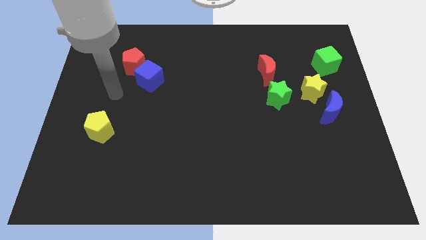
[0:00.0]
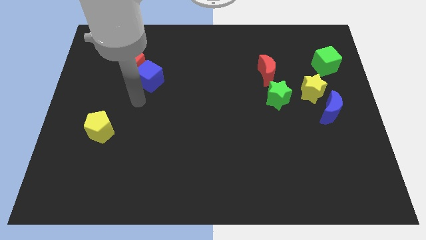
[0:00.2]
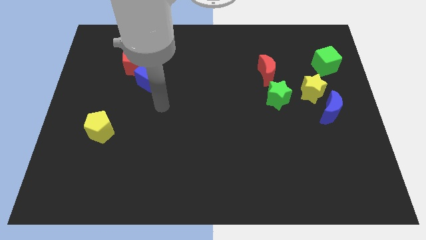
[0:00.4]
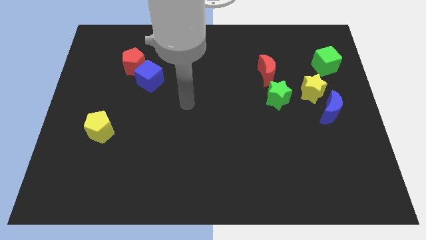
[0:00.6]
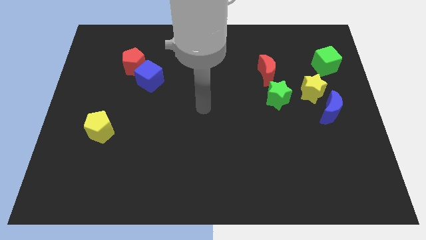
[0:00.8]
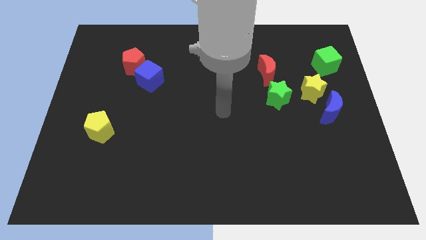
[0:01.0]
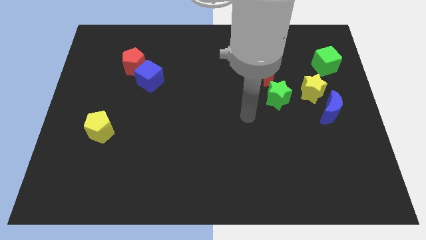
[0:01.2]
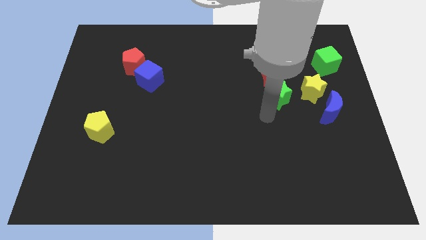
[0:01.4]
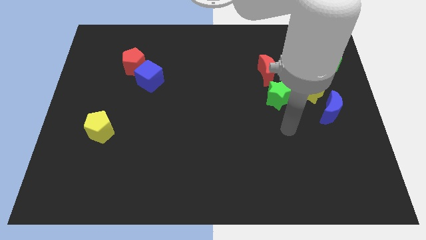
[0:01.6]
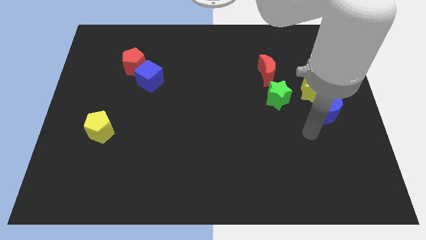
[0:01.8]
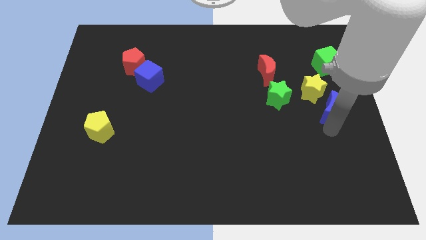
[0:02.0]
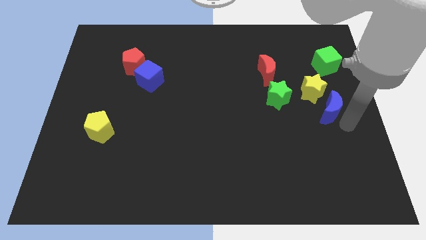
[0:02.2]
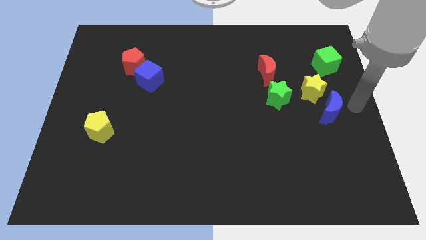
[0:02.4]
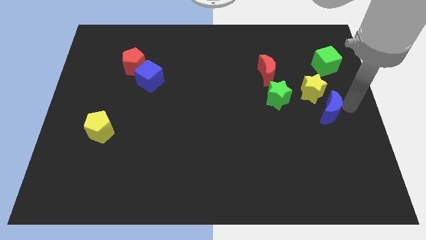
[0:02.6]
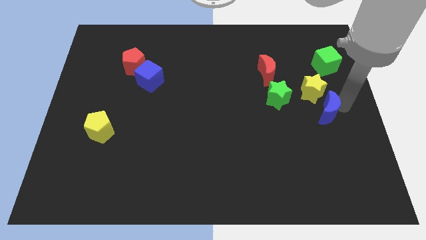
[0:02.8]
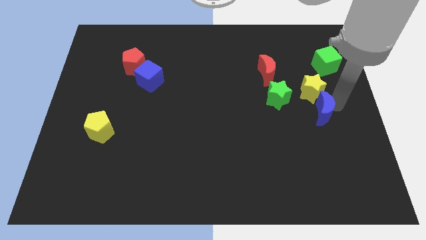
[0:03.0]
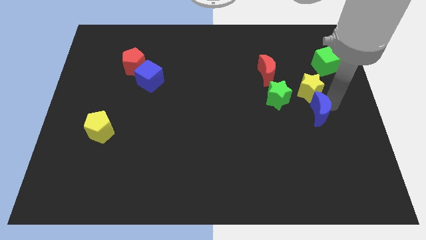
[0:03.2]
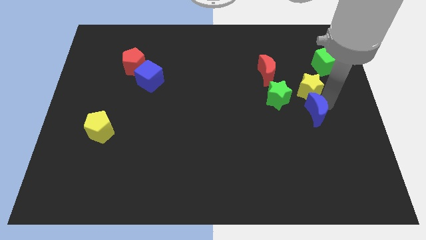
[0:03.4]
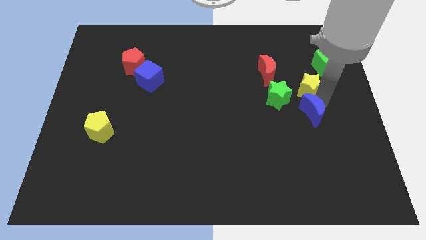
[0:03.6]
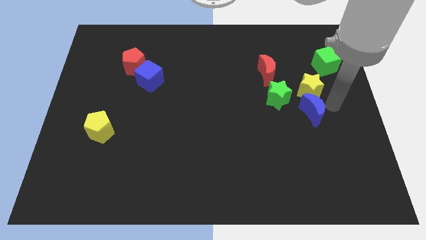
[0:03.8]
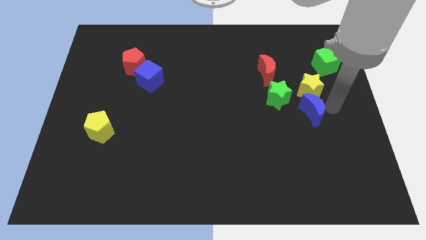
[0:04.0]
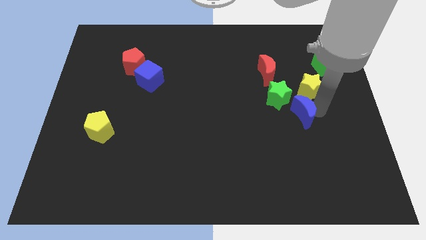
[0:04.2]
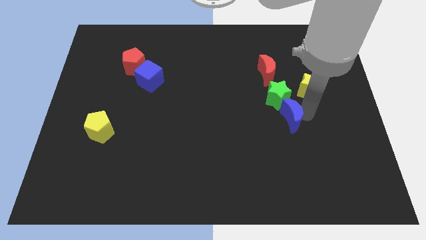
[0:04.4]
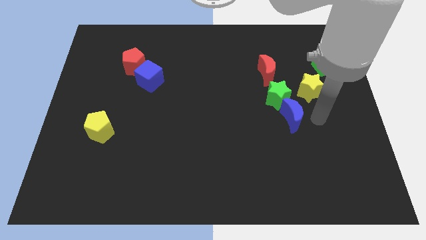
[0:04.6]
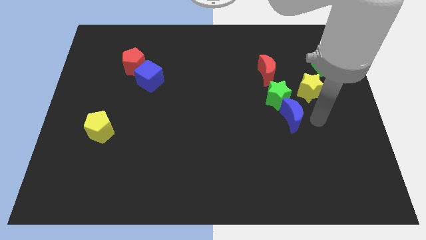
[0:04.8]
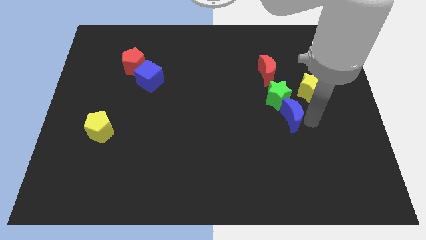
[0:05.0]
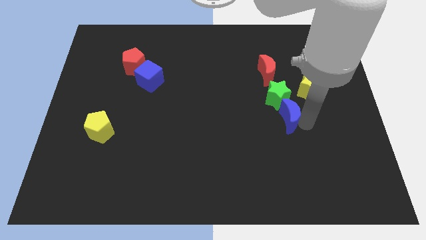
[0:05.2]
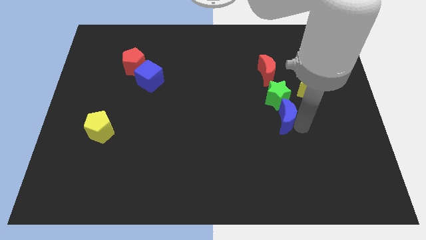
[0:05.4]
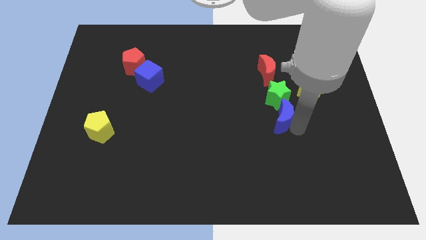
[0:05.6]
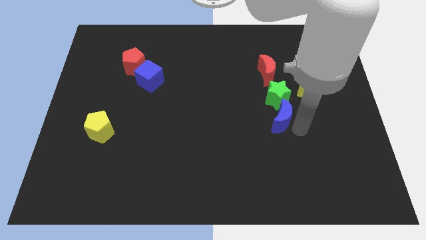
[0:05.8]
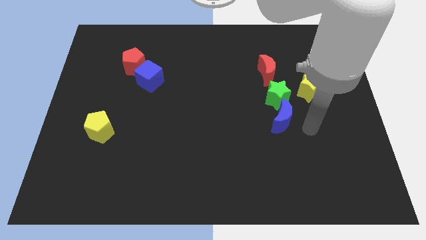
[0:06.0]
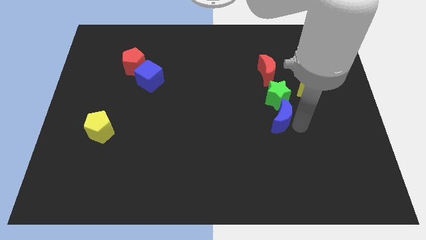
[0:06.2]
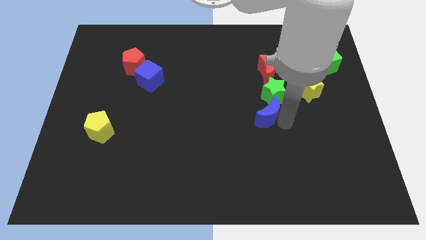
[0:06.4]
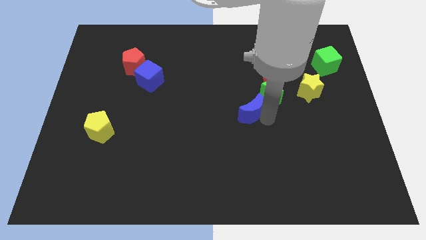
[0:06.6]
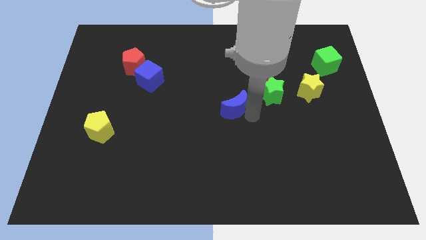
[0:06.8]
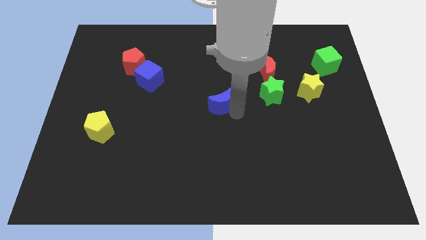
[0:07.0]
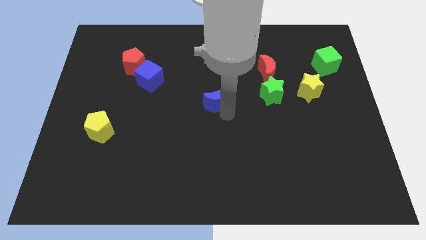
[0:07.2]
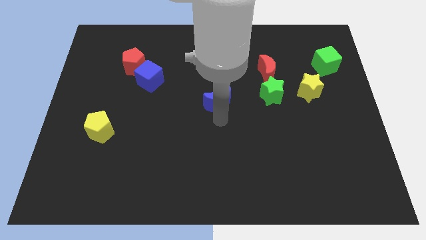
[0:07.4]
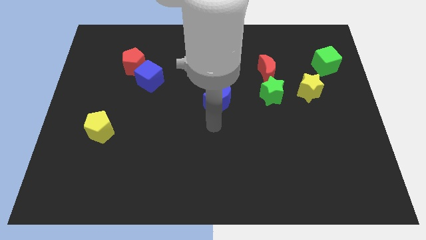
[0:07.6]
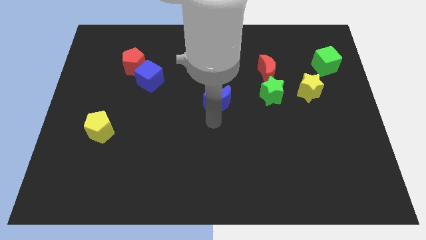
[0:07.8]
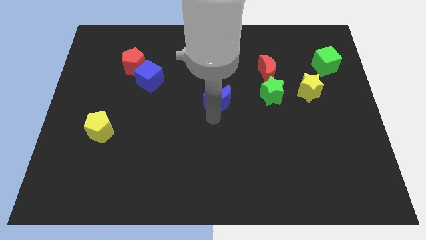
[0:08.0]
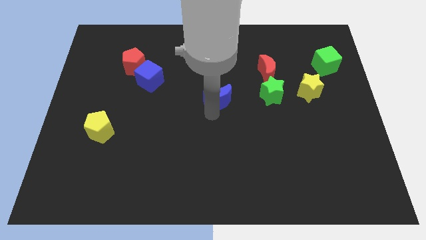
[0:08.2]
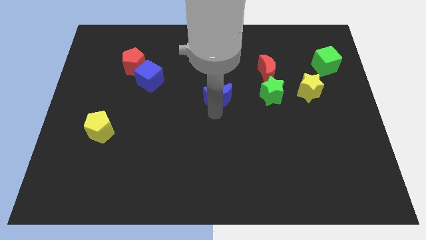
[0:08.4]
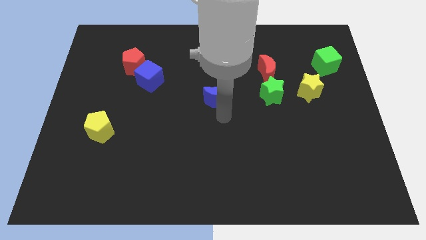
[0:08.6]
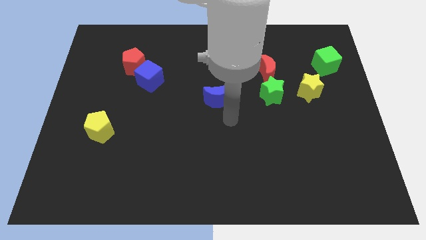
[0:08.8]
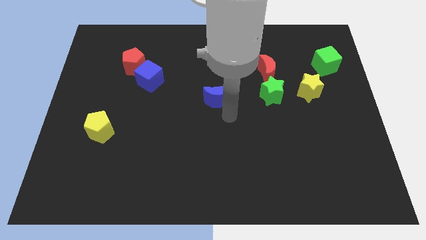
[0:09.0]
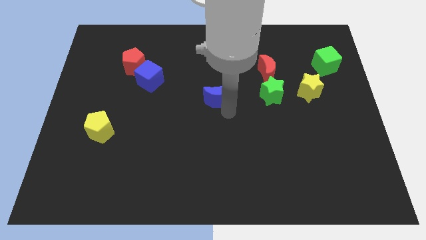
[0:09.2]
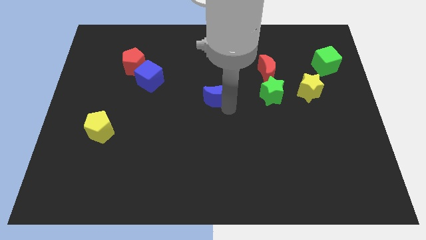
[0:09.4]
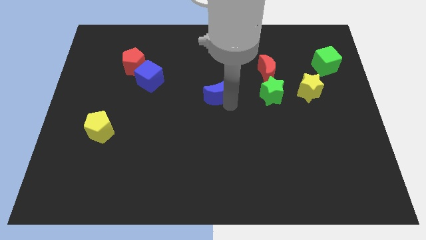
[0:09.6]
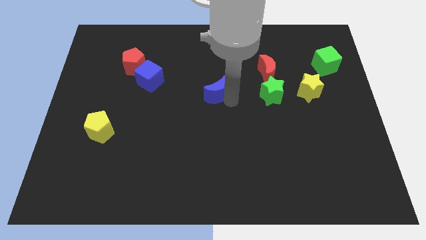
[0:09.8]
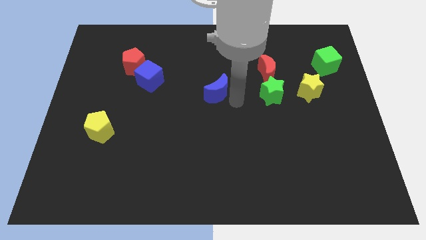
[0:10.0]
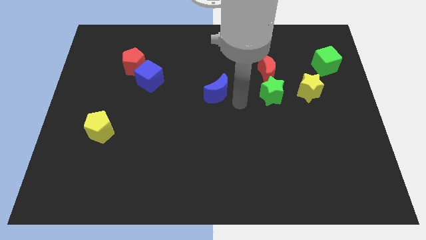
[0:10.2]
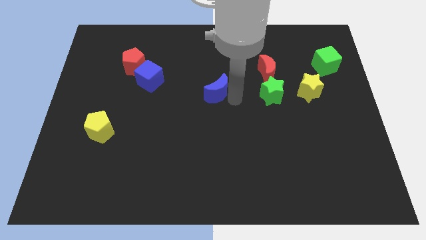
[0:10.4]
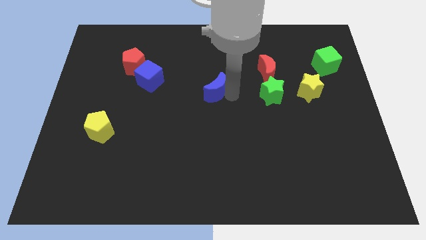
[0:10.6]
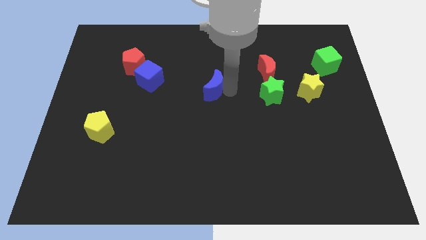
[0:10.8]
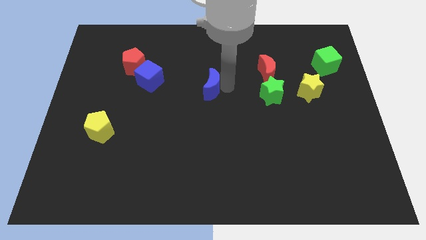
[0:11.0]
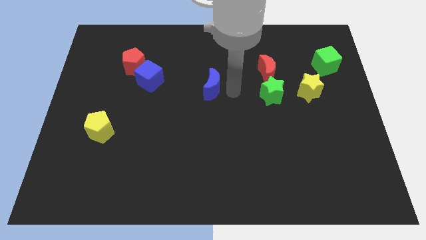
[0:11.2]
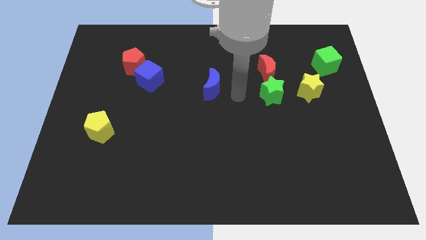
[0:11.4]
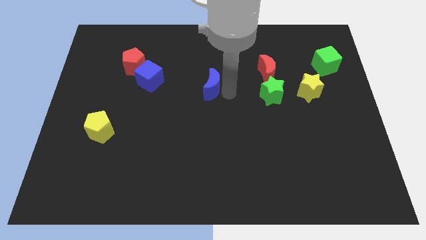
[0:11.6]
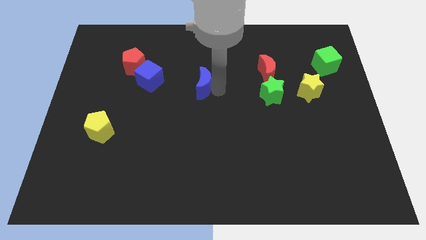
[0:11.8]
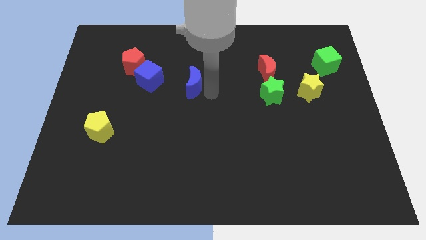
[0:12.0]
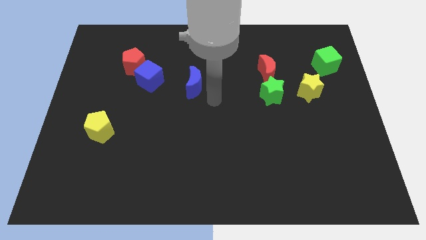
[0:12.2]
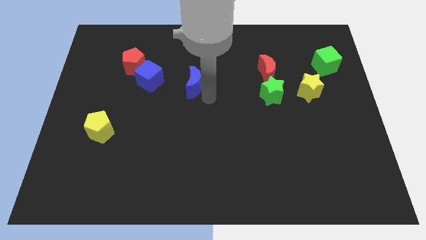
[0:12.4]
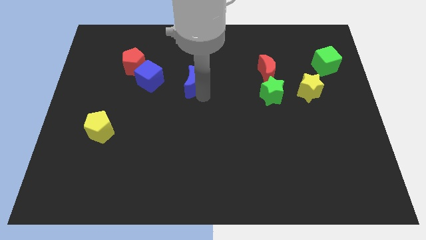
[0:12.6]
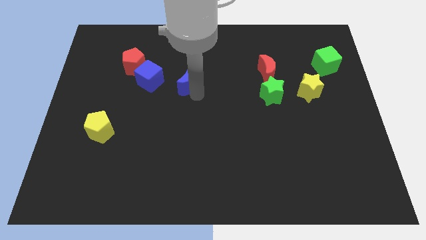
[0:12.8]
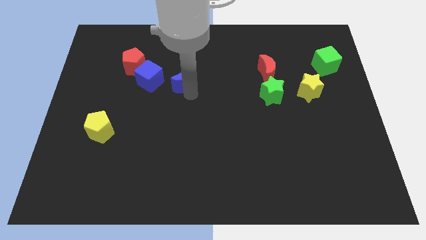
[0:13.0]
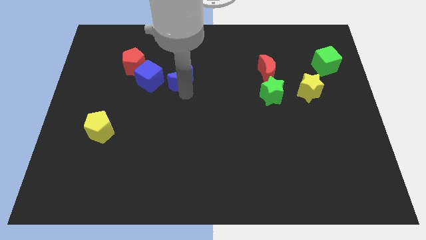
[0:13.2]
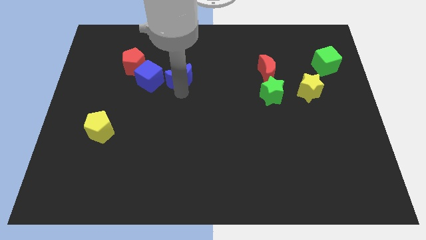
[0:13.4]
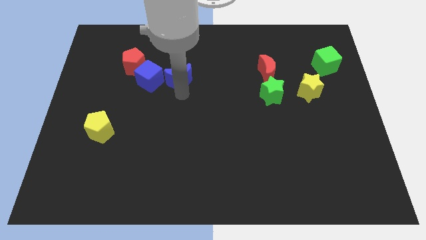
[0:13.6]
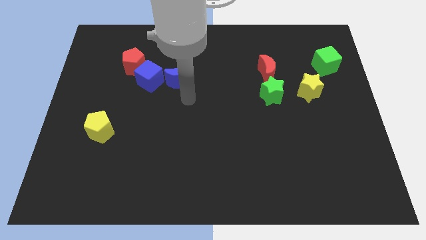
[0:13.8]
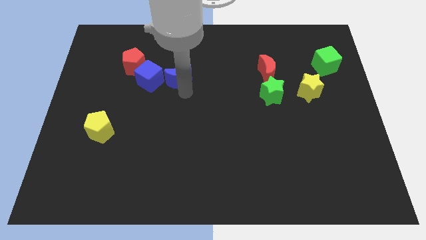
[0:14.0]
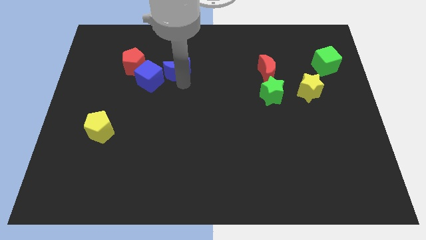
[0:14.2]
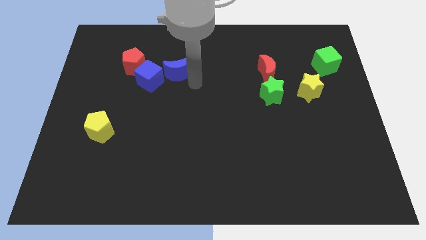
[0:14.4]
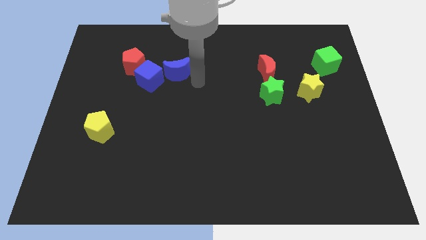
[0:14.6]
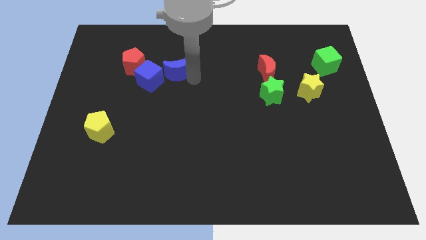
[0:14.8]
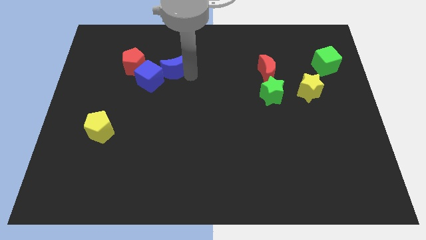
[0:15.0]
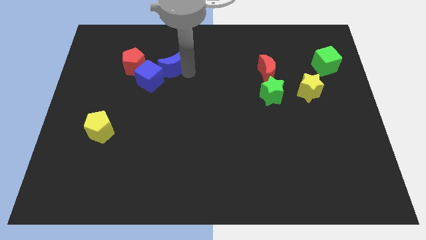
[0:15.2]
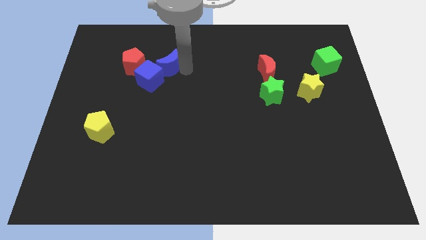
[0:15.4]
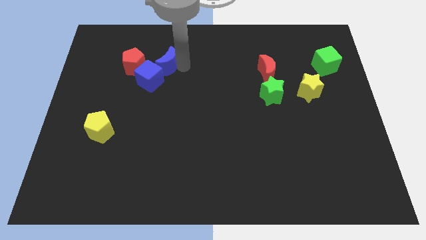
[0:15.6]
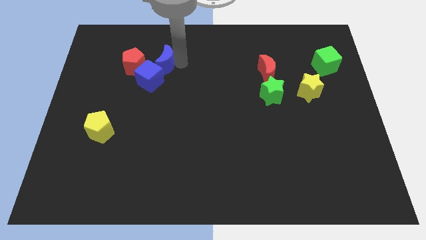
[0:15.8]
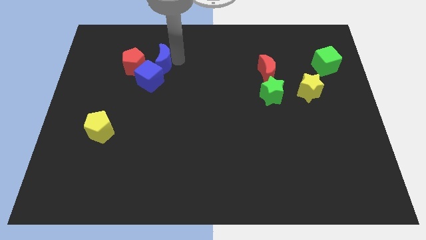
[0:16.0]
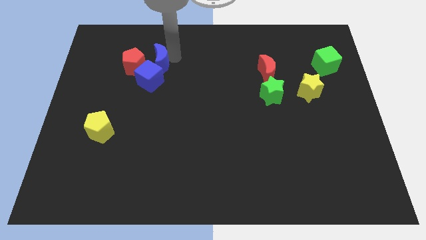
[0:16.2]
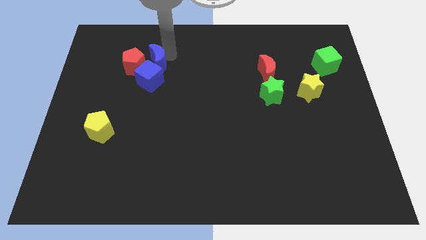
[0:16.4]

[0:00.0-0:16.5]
slide the blue moon close to the red pentagon
